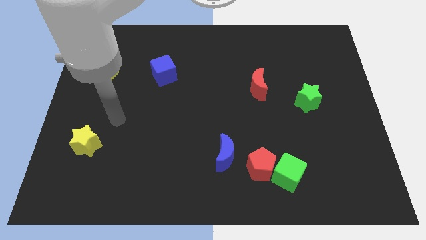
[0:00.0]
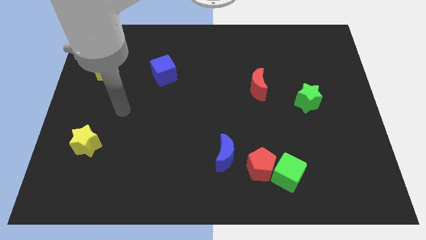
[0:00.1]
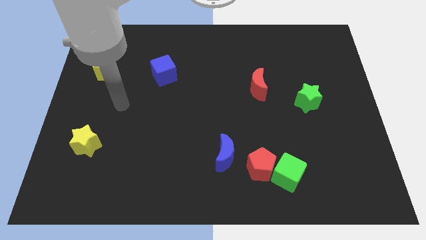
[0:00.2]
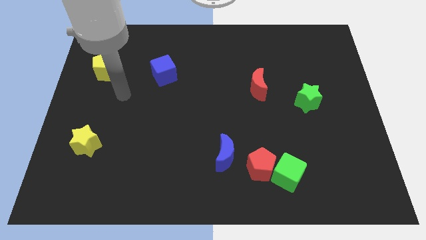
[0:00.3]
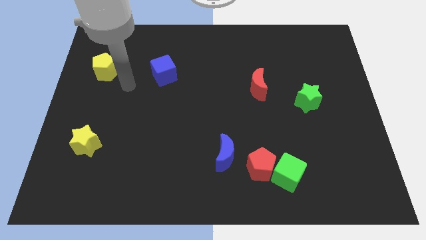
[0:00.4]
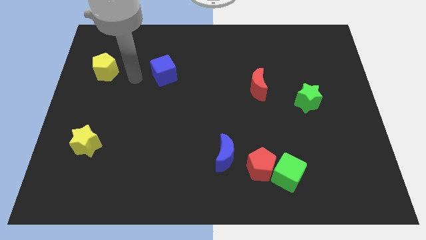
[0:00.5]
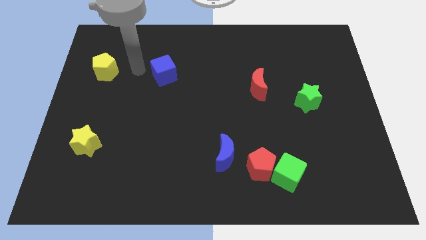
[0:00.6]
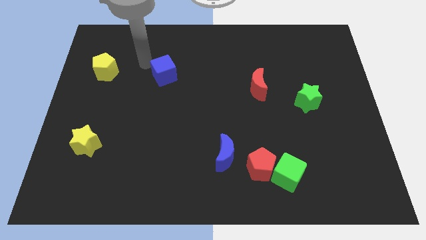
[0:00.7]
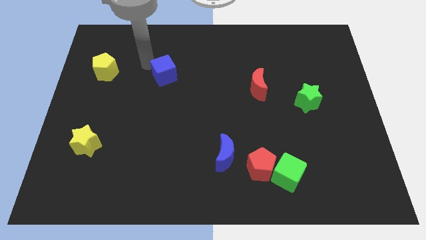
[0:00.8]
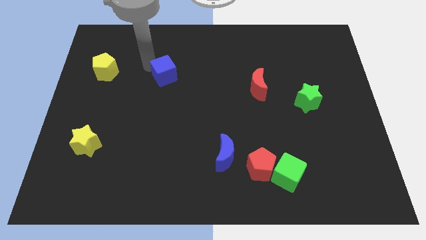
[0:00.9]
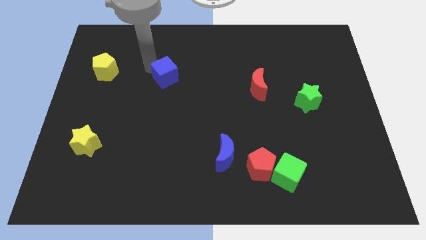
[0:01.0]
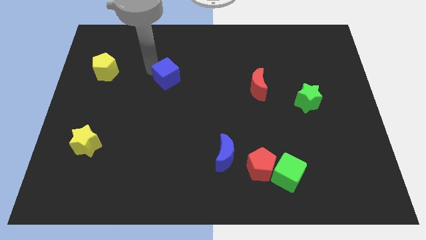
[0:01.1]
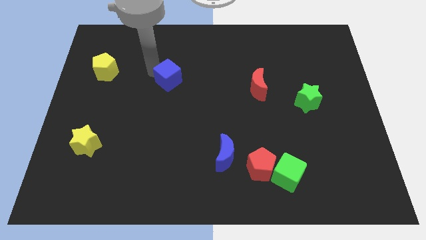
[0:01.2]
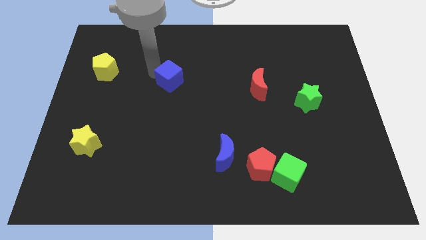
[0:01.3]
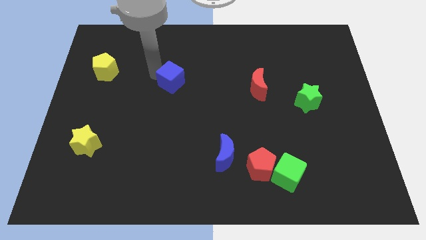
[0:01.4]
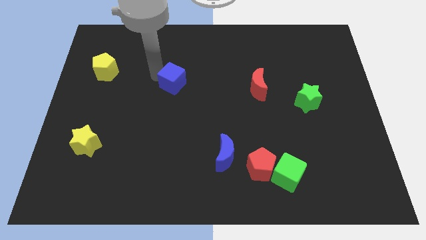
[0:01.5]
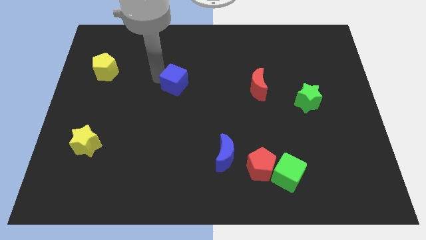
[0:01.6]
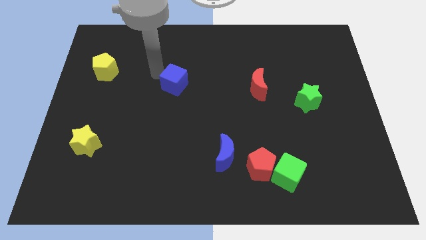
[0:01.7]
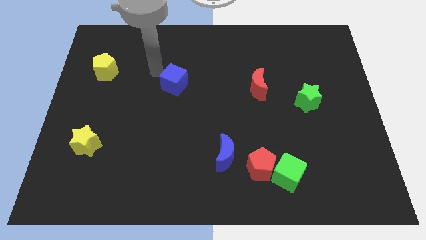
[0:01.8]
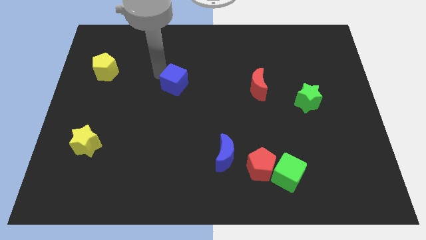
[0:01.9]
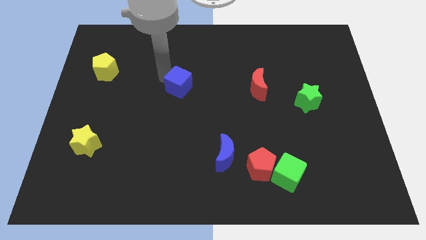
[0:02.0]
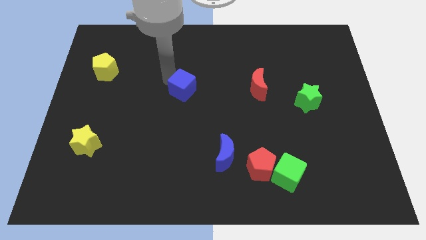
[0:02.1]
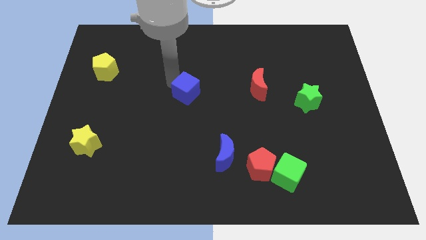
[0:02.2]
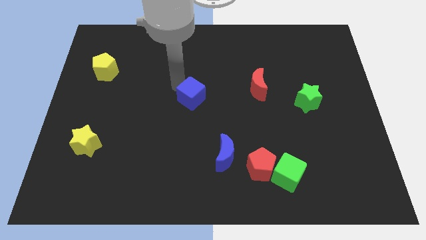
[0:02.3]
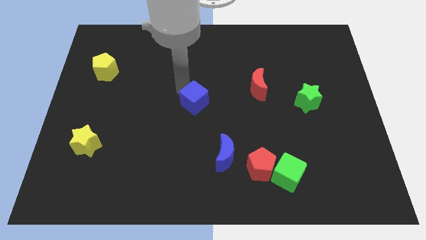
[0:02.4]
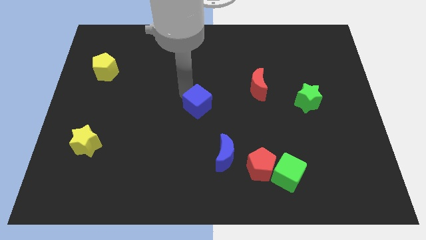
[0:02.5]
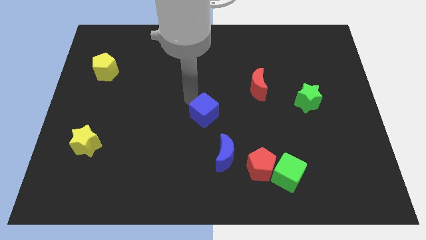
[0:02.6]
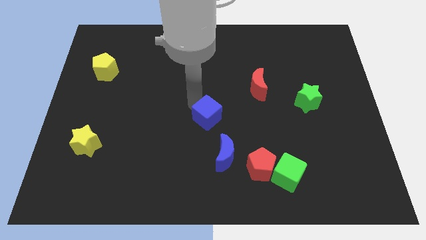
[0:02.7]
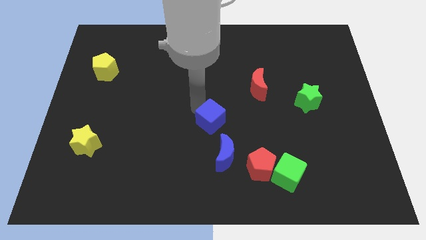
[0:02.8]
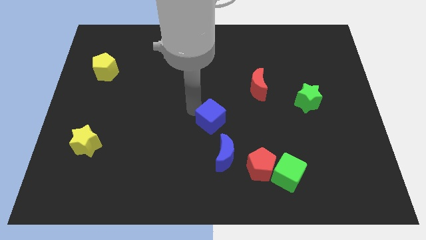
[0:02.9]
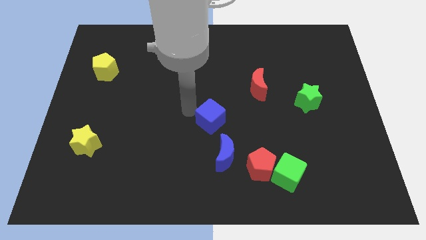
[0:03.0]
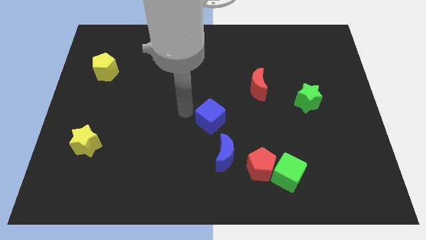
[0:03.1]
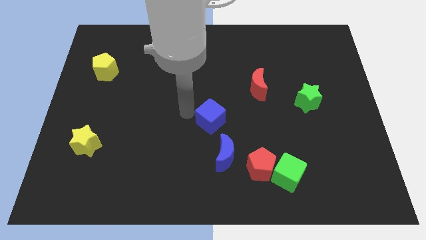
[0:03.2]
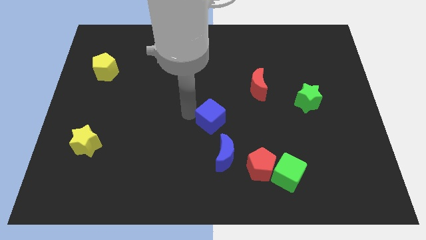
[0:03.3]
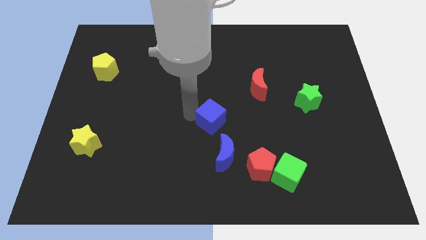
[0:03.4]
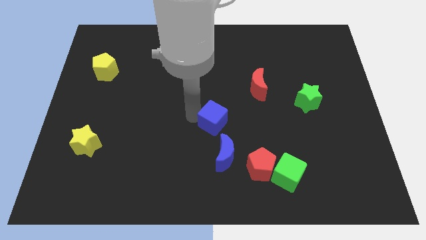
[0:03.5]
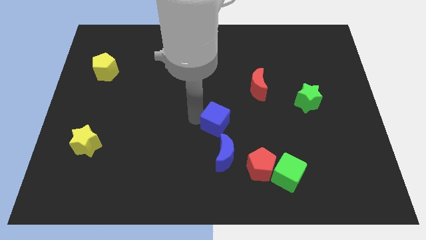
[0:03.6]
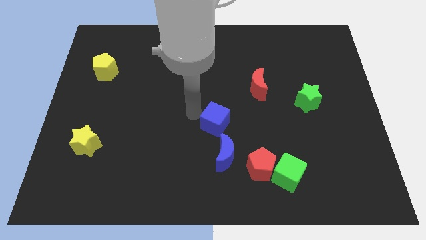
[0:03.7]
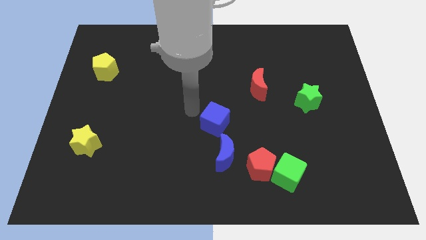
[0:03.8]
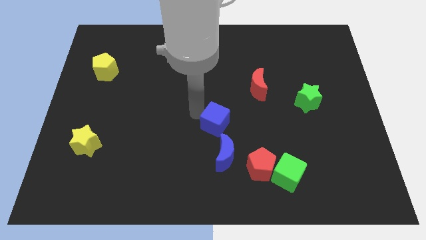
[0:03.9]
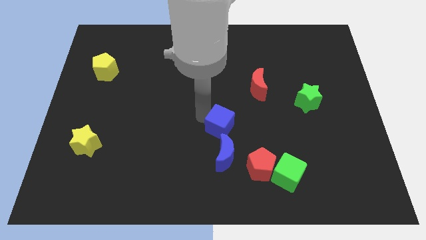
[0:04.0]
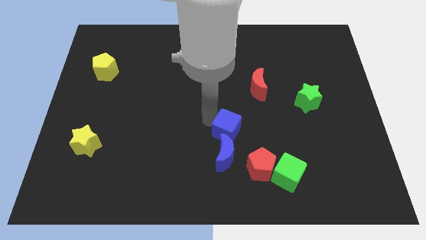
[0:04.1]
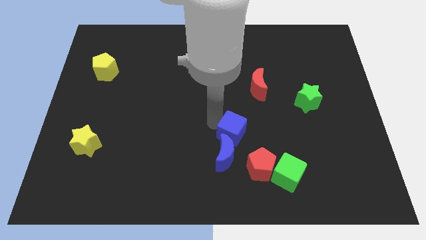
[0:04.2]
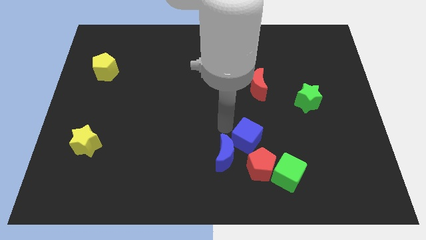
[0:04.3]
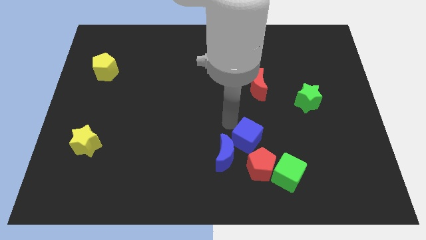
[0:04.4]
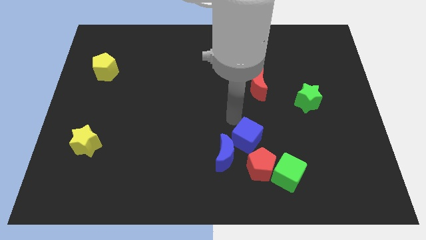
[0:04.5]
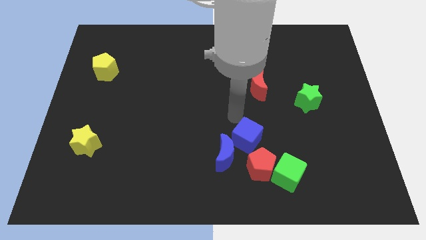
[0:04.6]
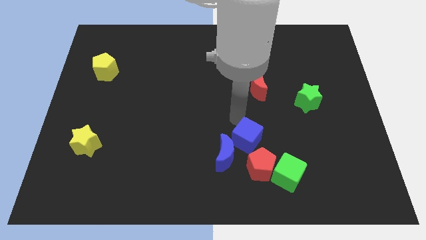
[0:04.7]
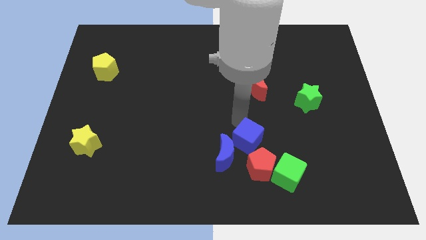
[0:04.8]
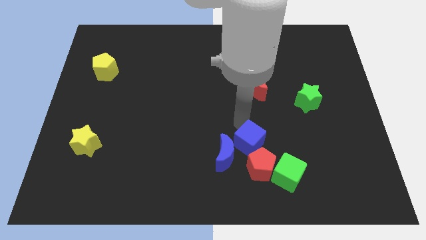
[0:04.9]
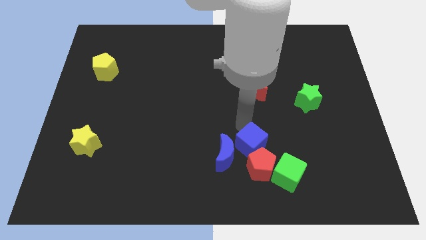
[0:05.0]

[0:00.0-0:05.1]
move the blue cube next to the red pentagon

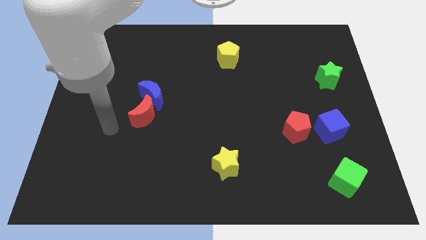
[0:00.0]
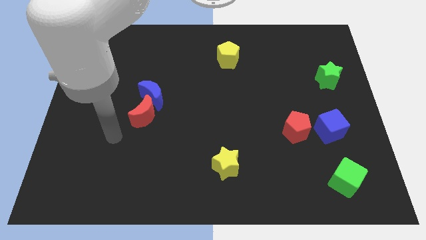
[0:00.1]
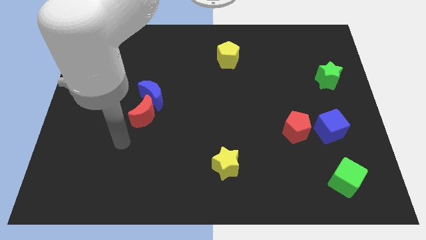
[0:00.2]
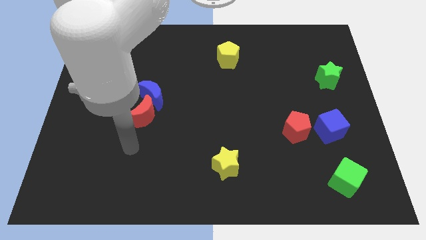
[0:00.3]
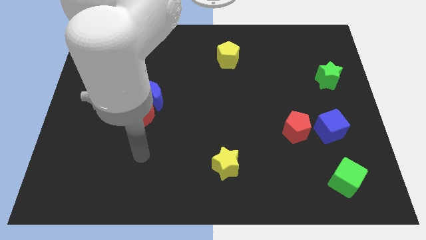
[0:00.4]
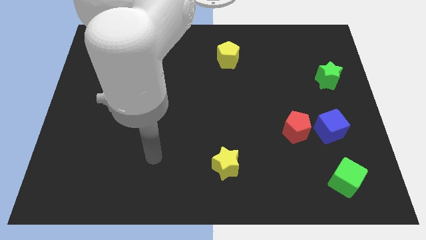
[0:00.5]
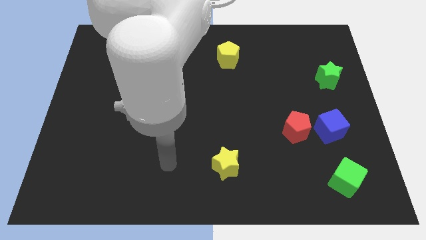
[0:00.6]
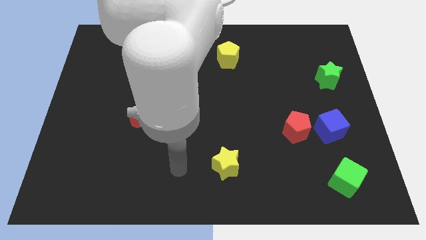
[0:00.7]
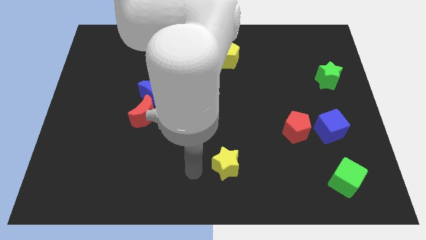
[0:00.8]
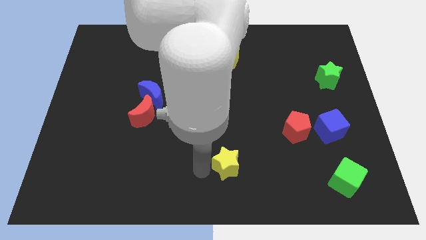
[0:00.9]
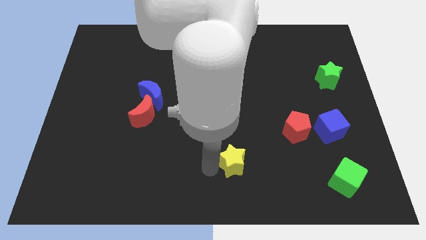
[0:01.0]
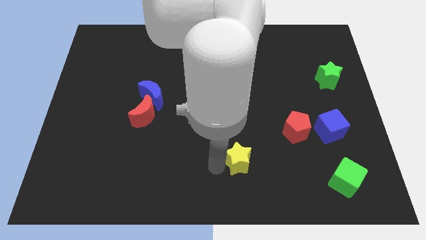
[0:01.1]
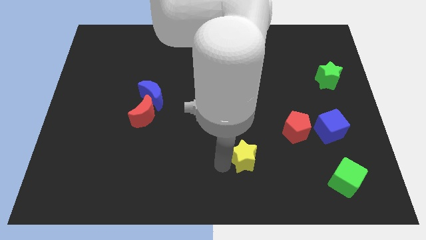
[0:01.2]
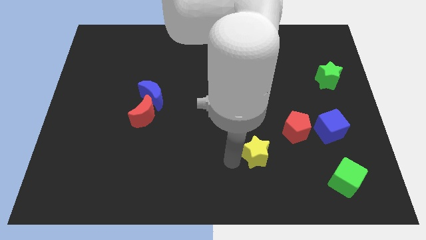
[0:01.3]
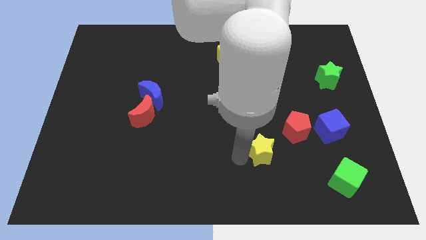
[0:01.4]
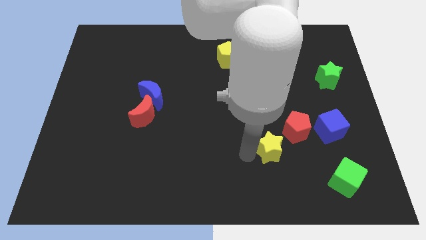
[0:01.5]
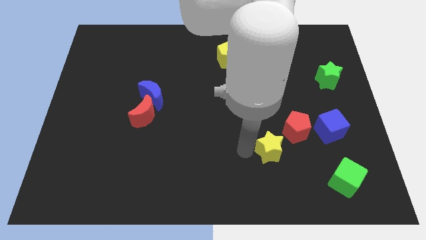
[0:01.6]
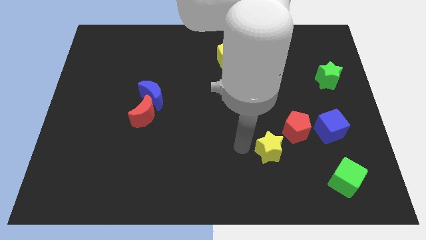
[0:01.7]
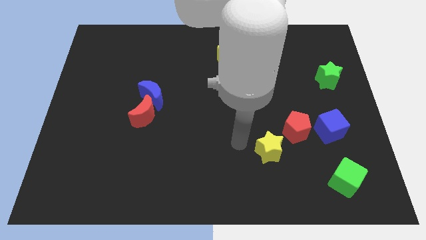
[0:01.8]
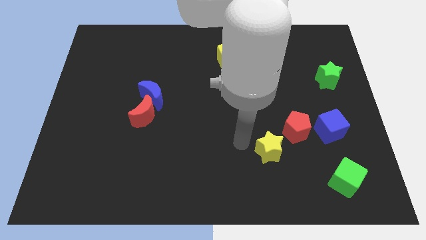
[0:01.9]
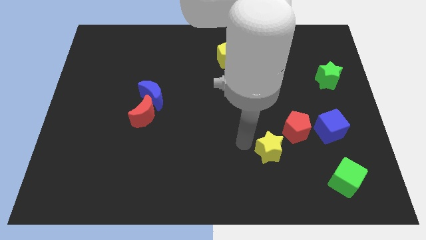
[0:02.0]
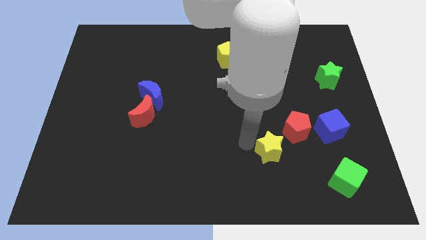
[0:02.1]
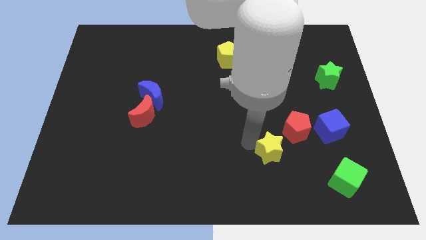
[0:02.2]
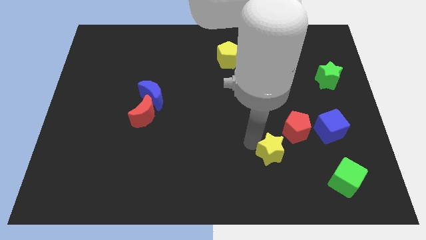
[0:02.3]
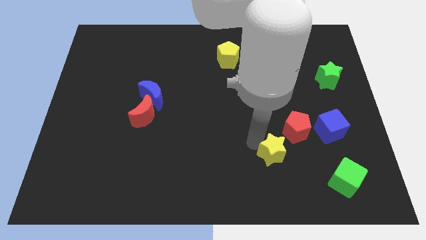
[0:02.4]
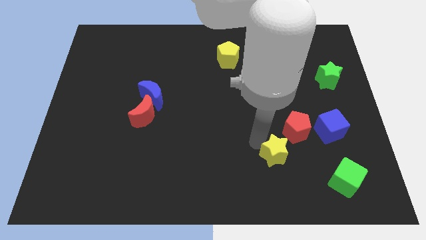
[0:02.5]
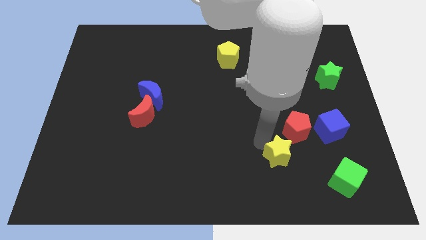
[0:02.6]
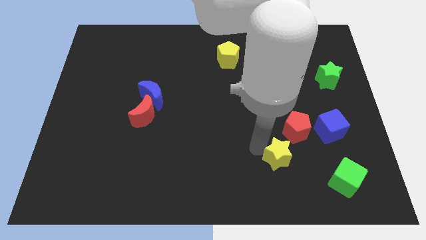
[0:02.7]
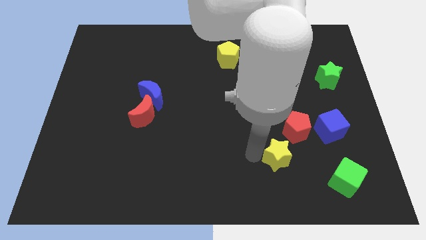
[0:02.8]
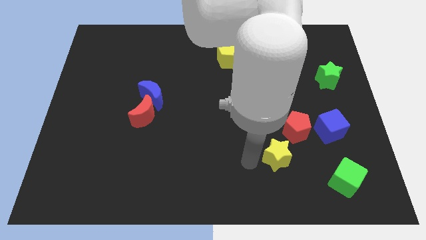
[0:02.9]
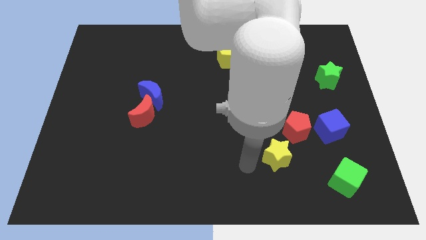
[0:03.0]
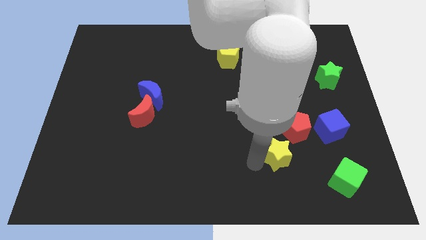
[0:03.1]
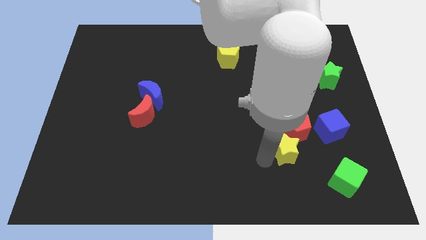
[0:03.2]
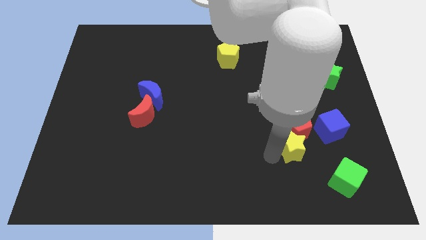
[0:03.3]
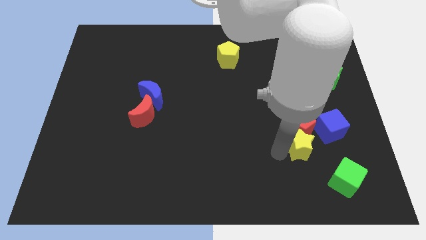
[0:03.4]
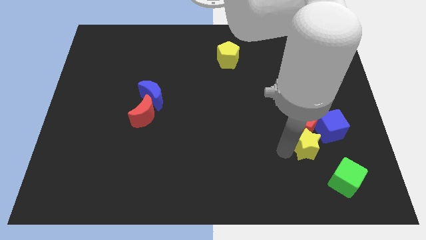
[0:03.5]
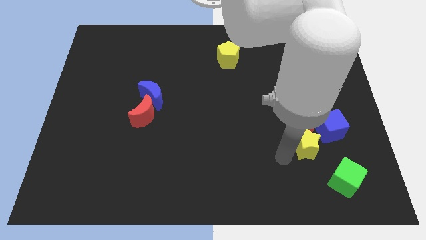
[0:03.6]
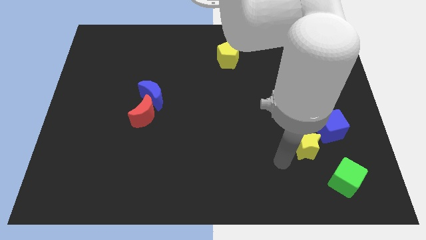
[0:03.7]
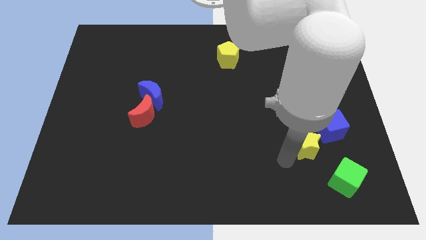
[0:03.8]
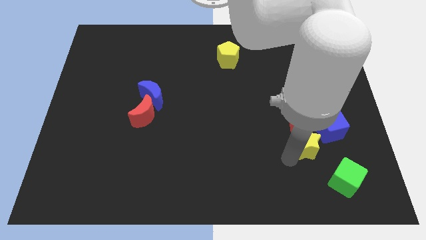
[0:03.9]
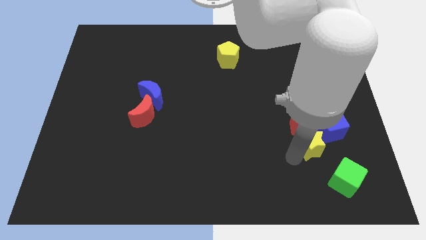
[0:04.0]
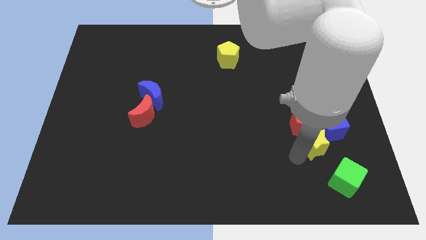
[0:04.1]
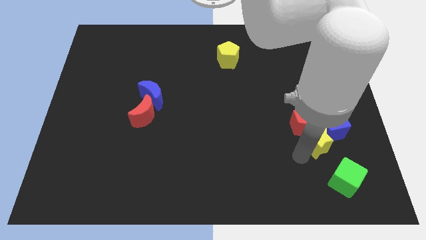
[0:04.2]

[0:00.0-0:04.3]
slide the yellow star close to the blue cube
